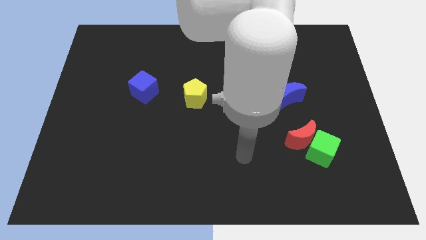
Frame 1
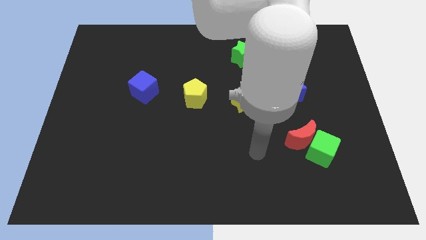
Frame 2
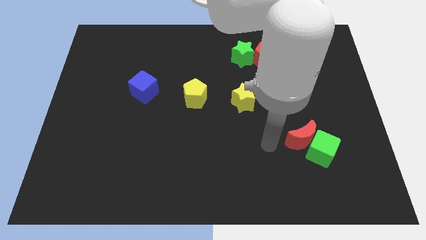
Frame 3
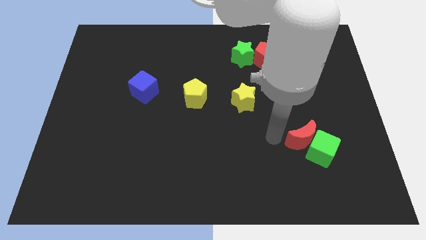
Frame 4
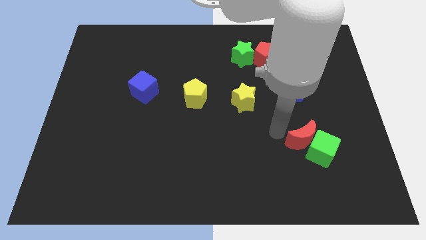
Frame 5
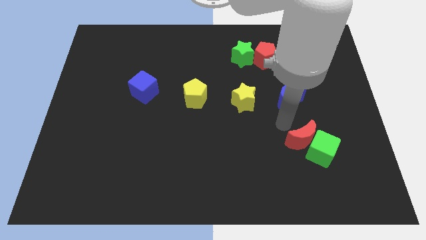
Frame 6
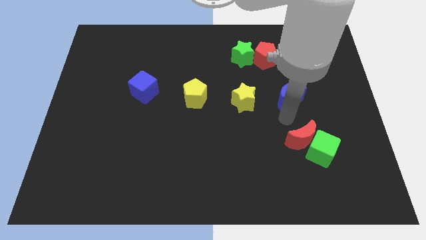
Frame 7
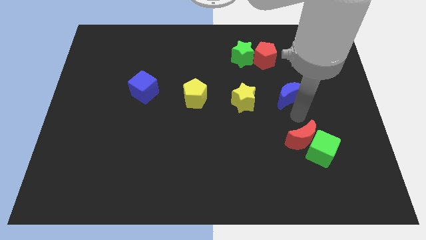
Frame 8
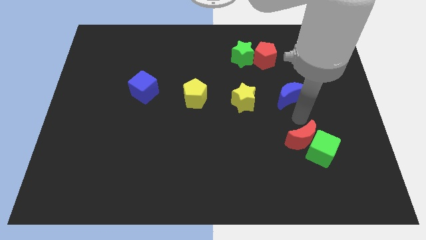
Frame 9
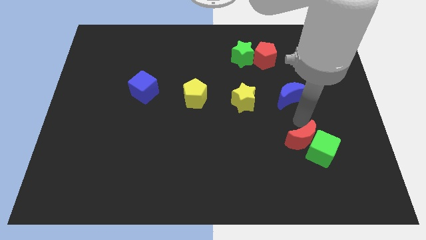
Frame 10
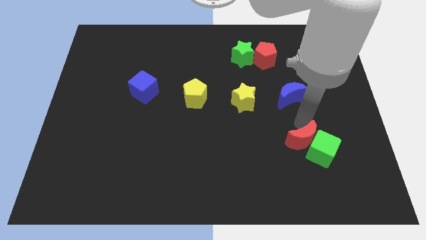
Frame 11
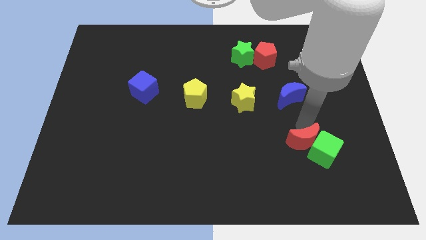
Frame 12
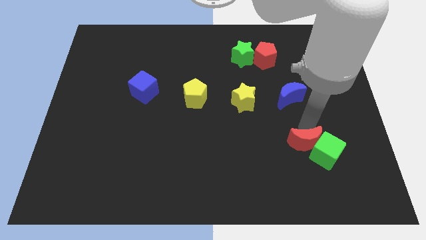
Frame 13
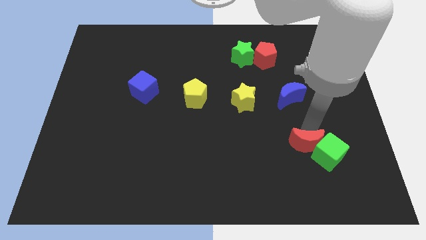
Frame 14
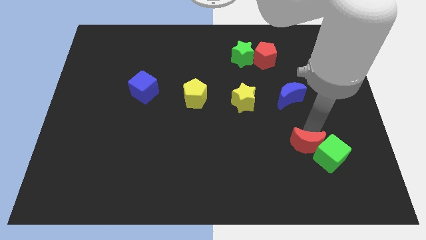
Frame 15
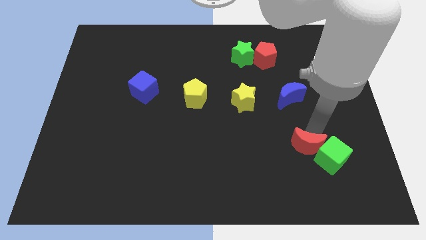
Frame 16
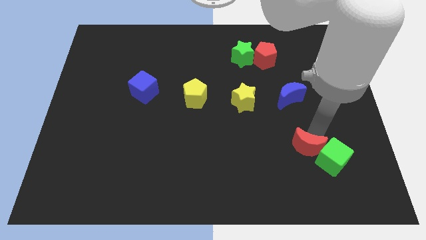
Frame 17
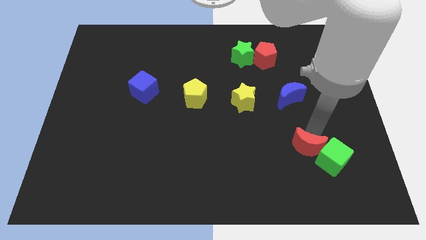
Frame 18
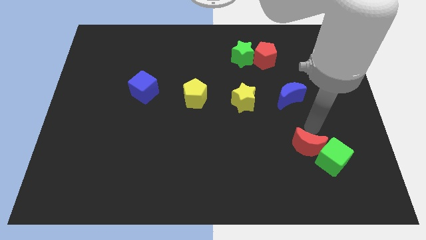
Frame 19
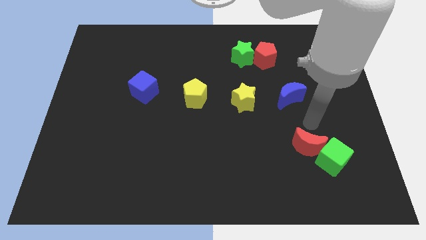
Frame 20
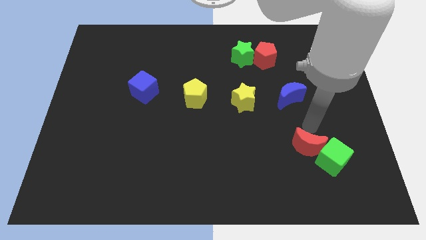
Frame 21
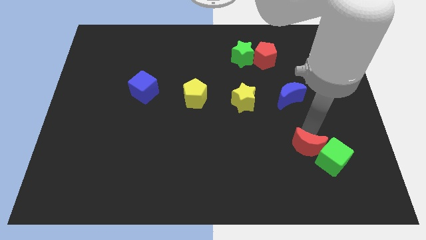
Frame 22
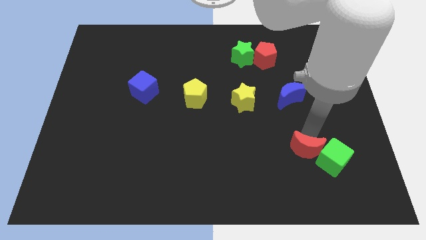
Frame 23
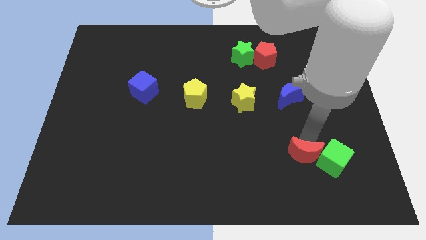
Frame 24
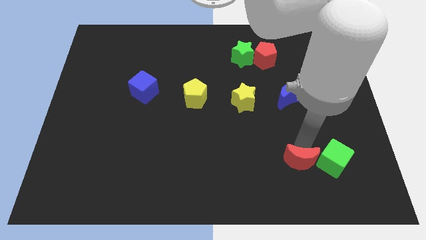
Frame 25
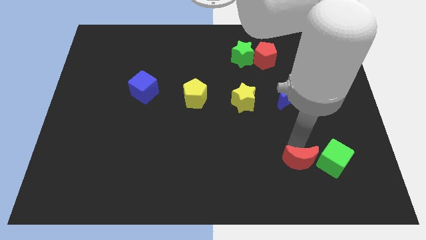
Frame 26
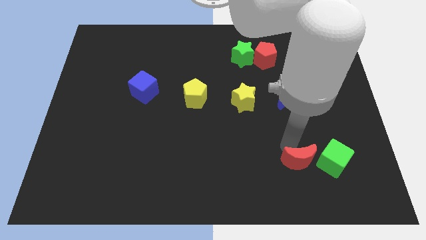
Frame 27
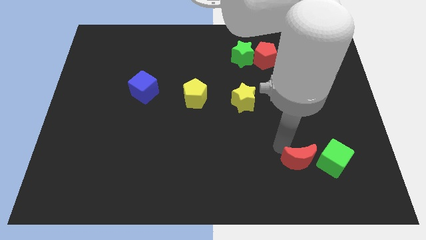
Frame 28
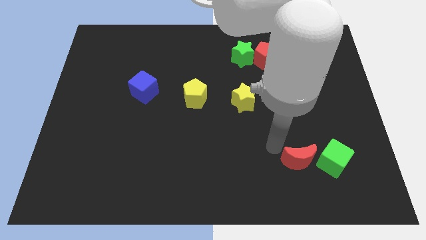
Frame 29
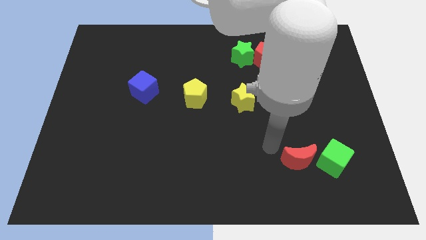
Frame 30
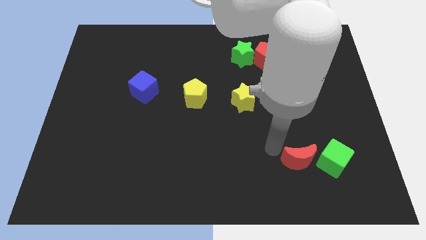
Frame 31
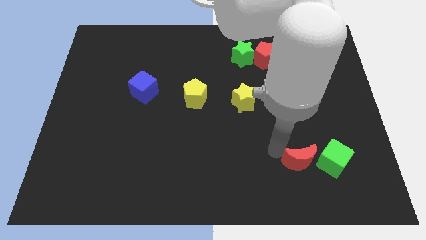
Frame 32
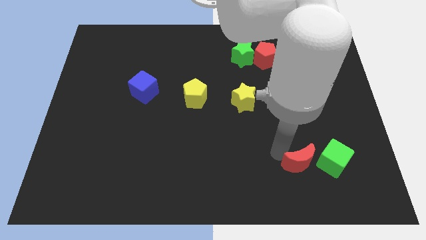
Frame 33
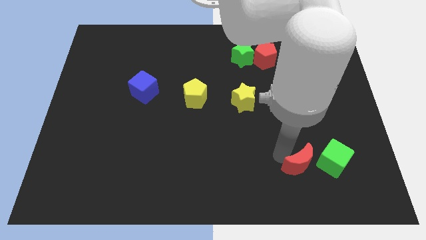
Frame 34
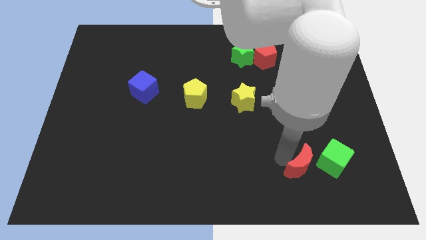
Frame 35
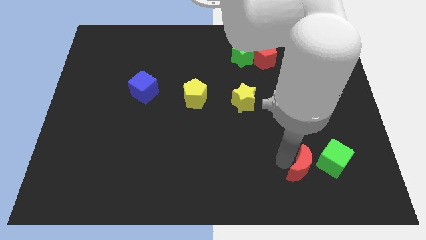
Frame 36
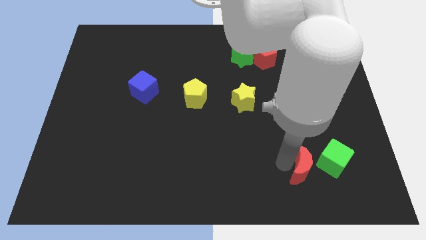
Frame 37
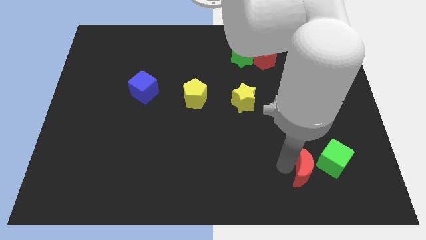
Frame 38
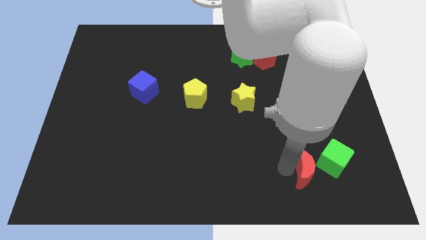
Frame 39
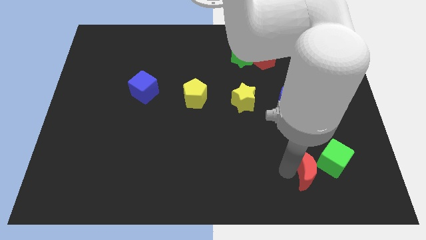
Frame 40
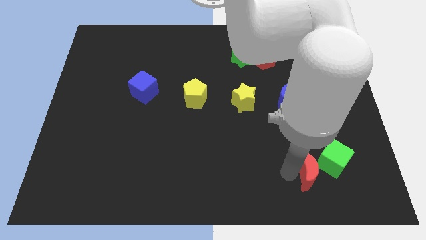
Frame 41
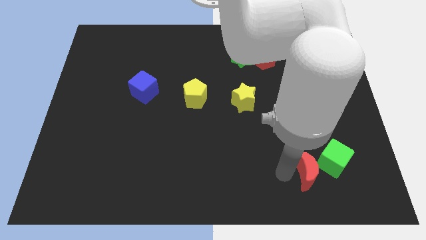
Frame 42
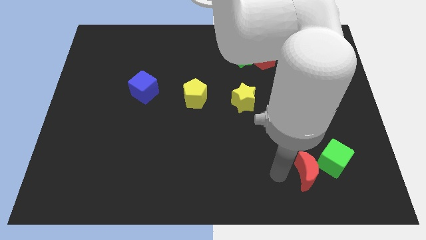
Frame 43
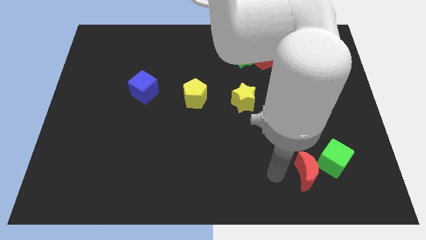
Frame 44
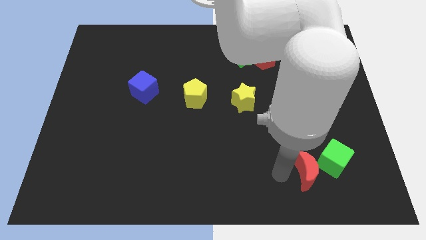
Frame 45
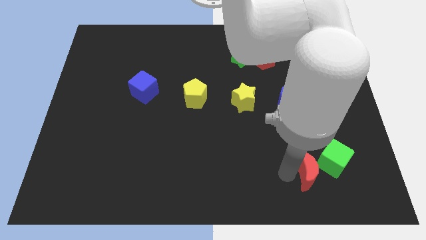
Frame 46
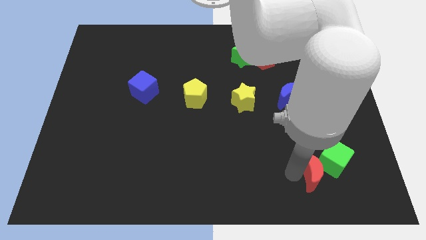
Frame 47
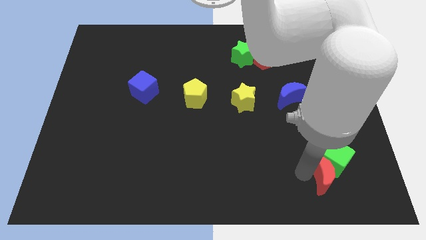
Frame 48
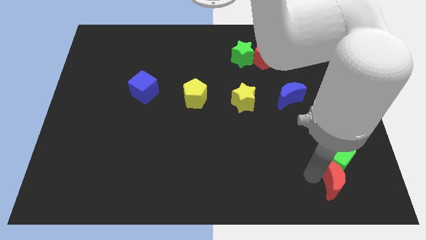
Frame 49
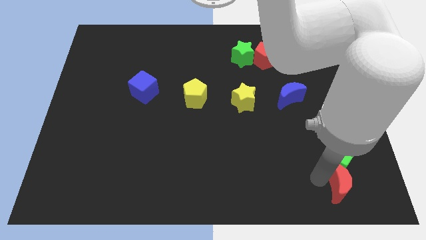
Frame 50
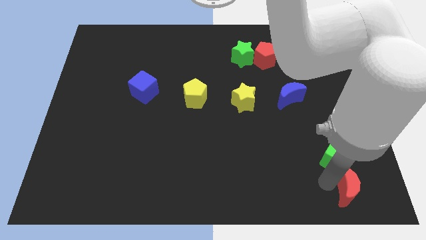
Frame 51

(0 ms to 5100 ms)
push the red moon to the bottom right
